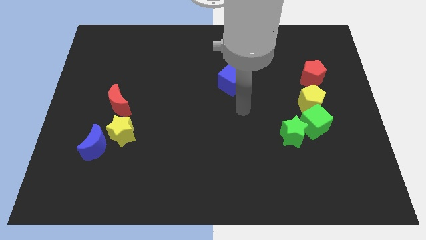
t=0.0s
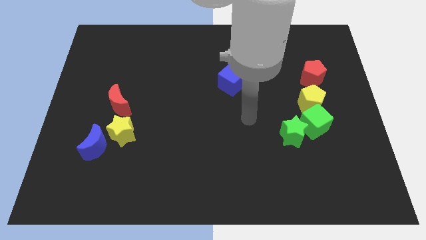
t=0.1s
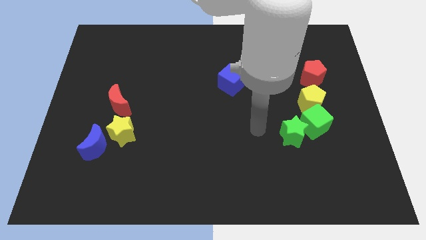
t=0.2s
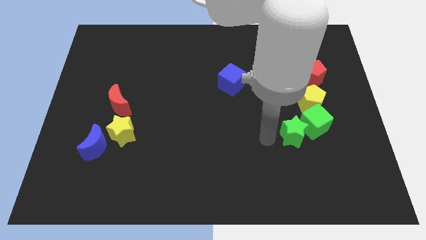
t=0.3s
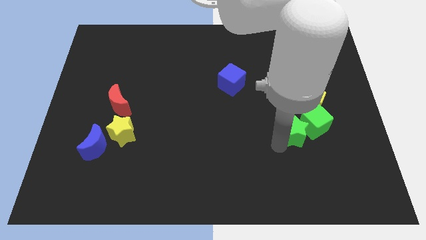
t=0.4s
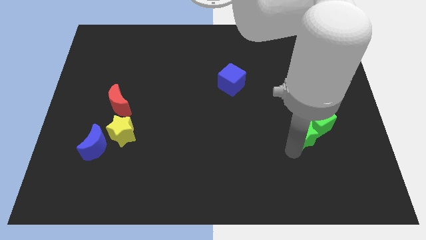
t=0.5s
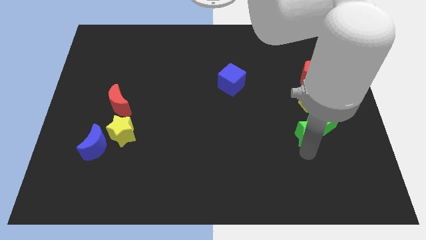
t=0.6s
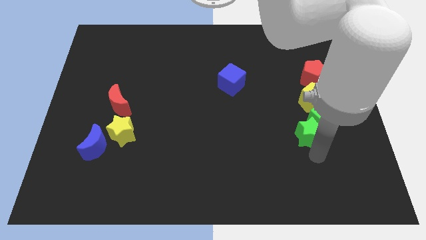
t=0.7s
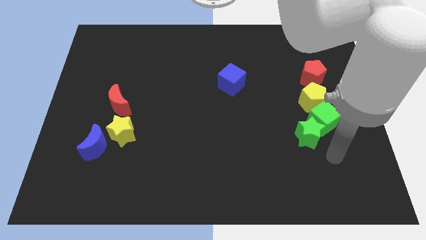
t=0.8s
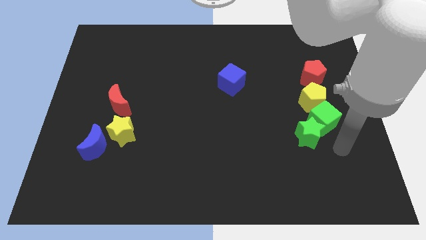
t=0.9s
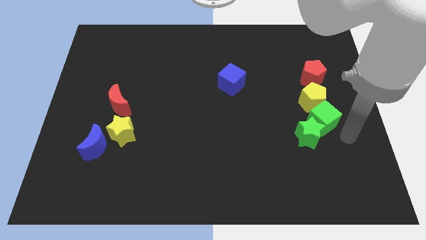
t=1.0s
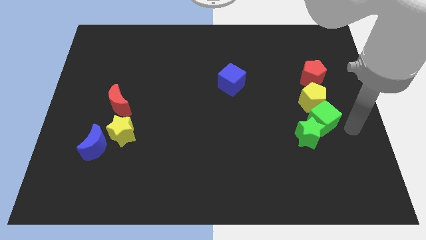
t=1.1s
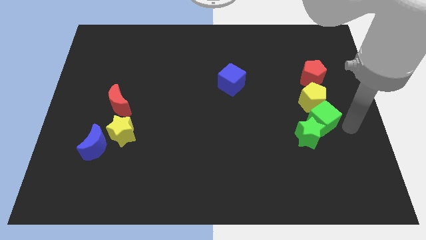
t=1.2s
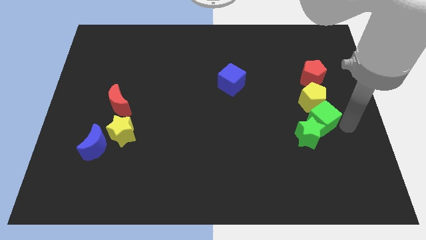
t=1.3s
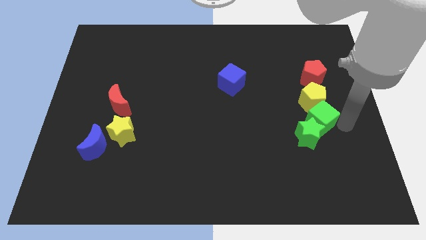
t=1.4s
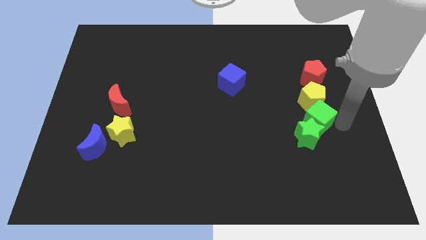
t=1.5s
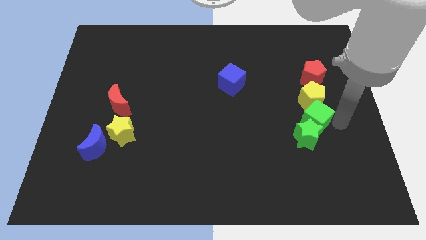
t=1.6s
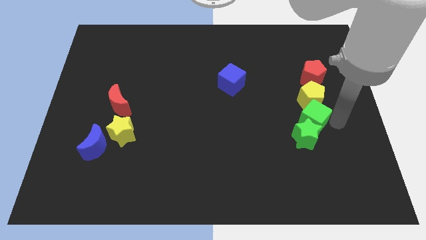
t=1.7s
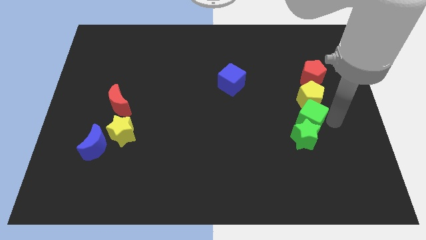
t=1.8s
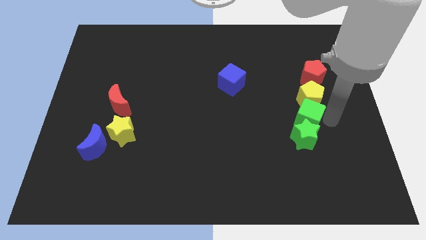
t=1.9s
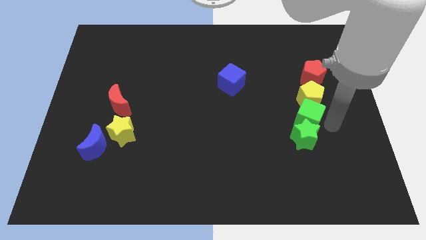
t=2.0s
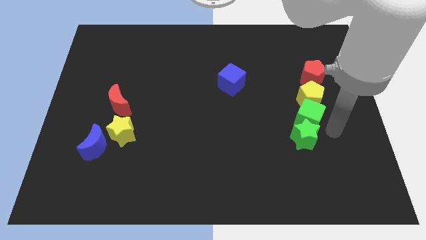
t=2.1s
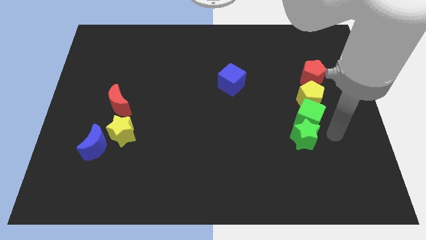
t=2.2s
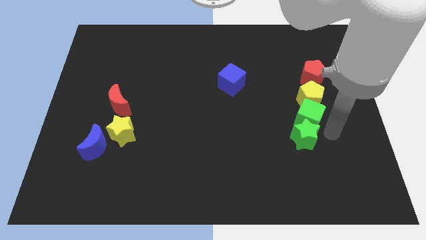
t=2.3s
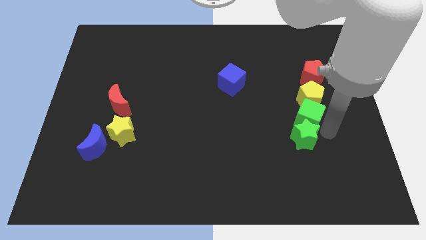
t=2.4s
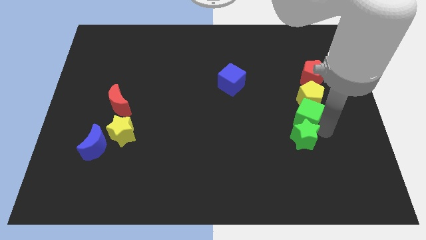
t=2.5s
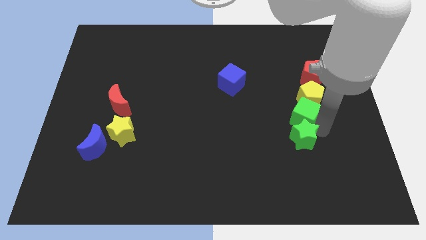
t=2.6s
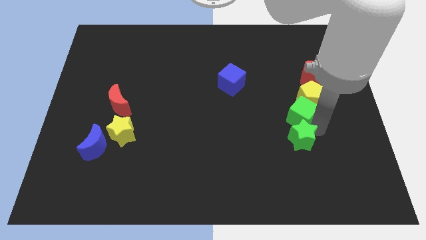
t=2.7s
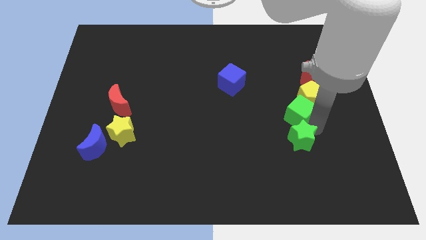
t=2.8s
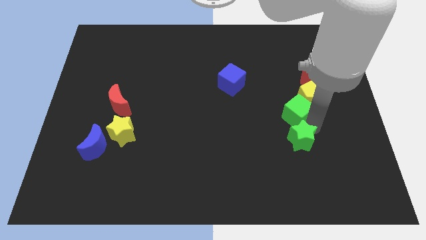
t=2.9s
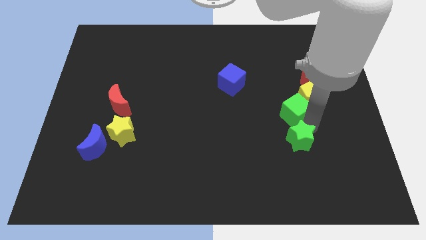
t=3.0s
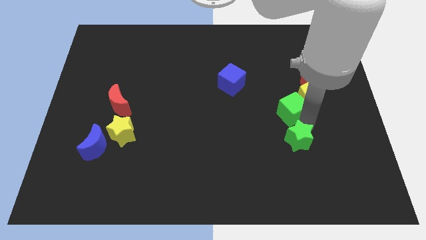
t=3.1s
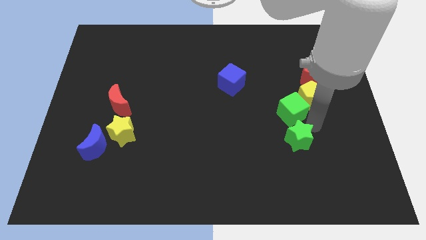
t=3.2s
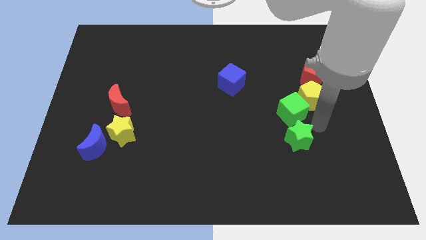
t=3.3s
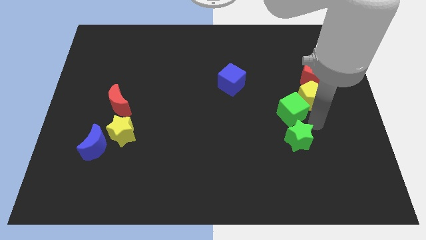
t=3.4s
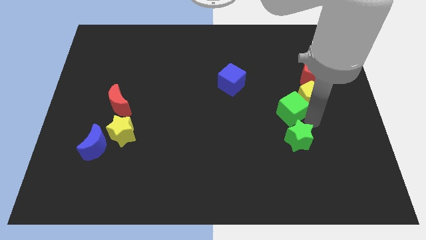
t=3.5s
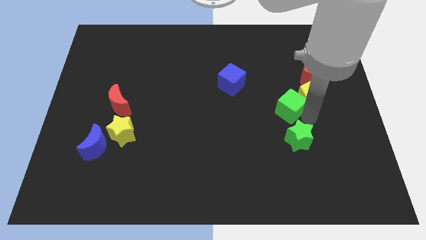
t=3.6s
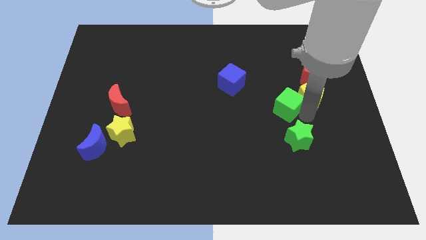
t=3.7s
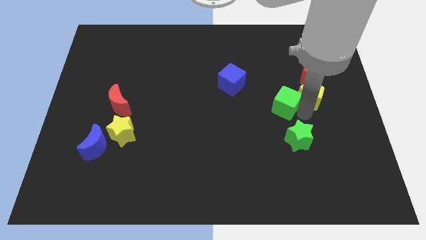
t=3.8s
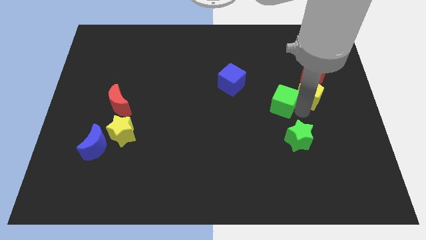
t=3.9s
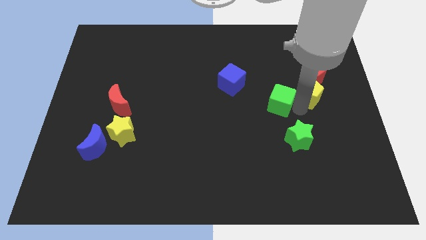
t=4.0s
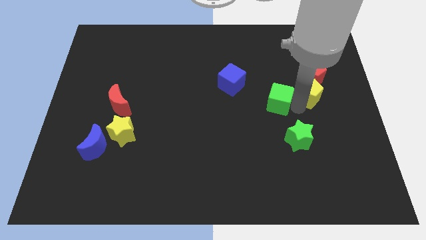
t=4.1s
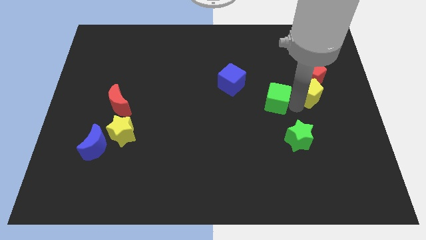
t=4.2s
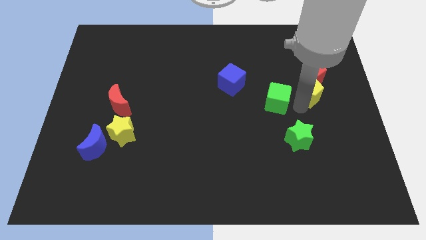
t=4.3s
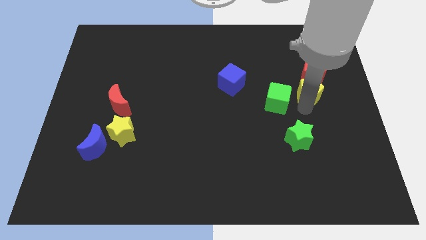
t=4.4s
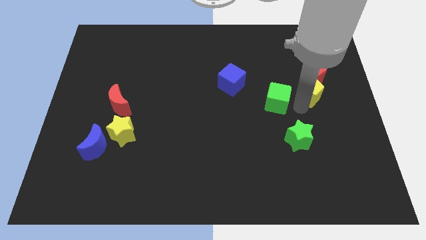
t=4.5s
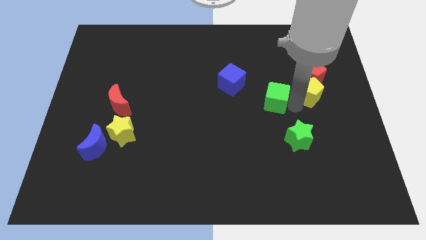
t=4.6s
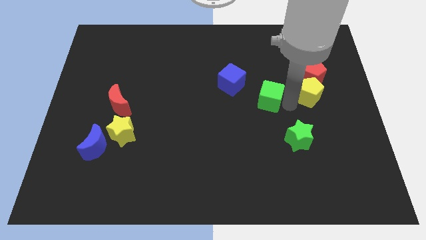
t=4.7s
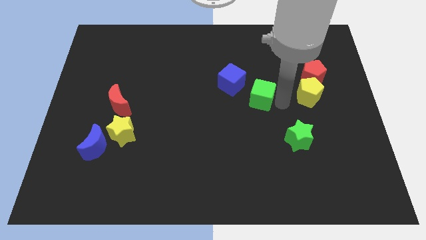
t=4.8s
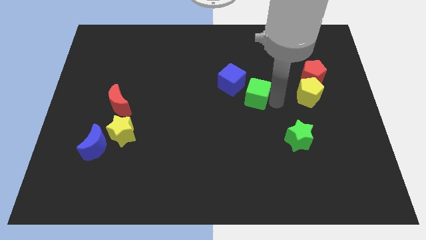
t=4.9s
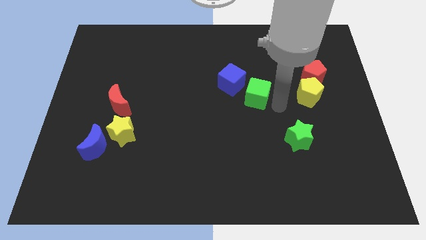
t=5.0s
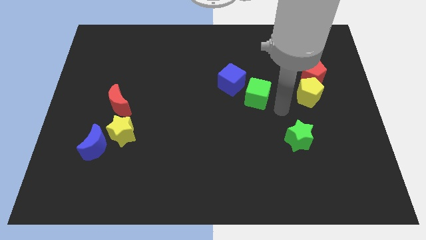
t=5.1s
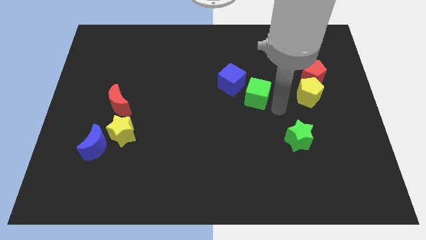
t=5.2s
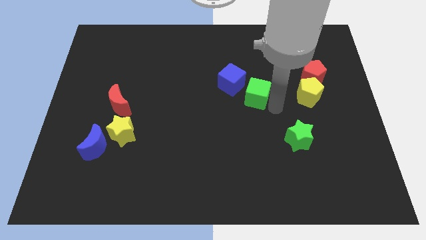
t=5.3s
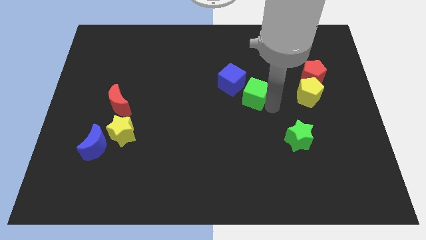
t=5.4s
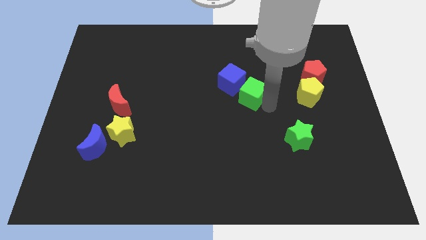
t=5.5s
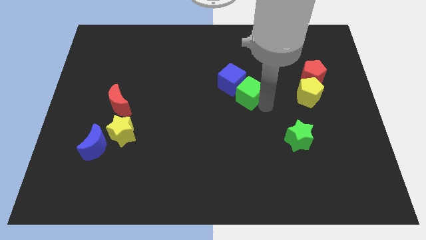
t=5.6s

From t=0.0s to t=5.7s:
move the green cube close to the blue cube

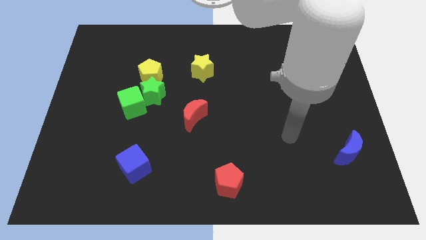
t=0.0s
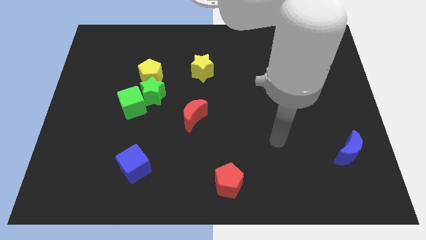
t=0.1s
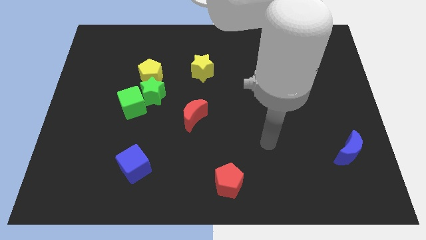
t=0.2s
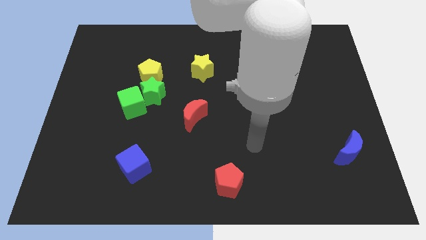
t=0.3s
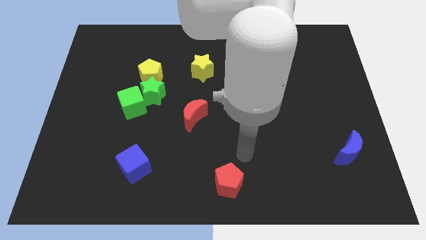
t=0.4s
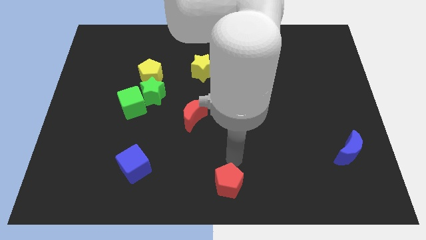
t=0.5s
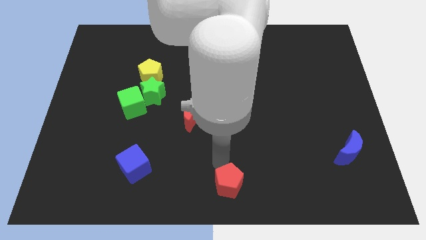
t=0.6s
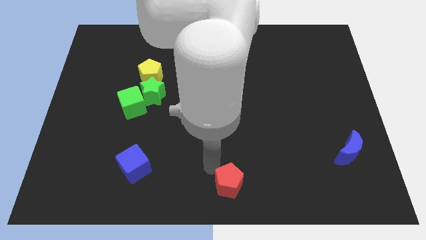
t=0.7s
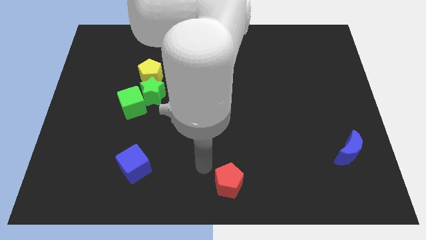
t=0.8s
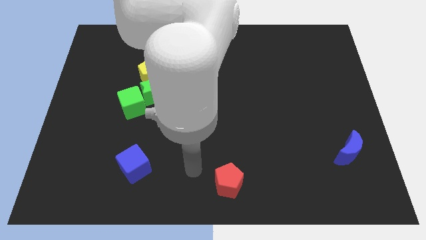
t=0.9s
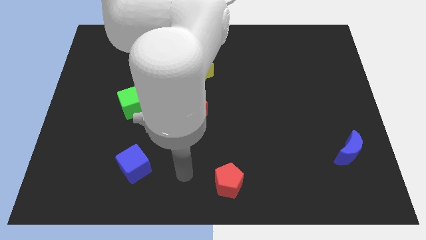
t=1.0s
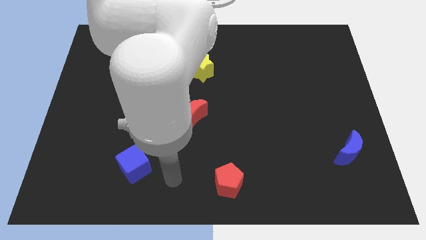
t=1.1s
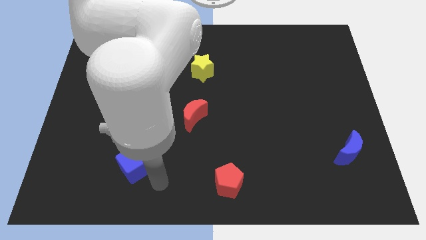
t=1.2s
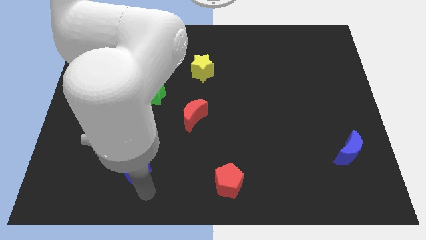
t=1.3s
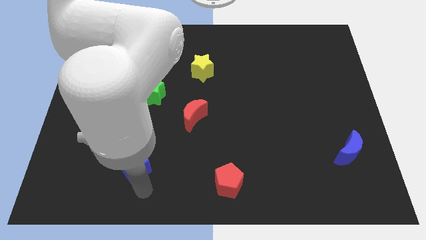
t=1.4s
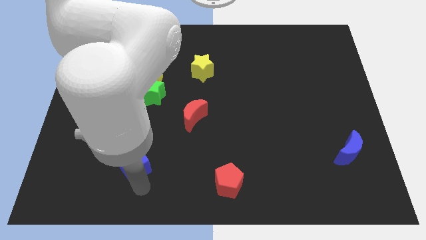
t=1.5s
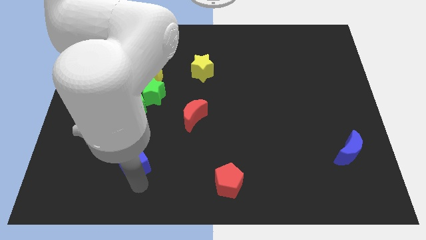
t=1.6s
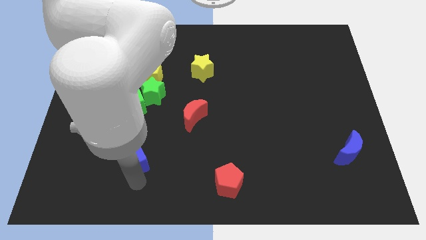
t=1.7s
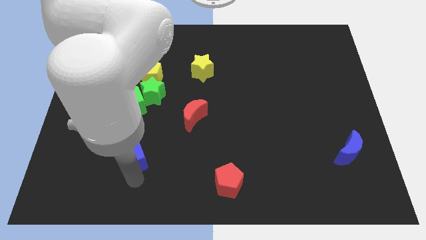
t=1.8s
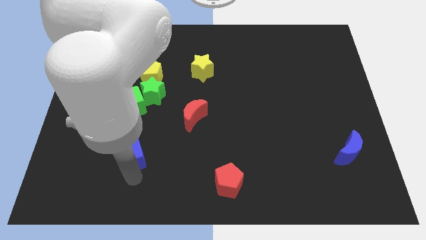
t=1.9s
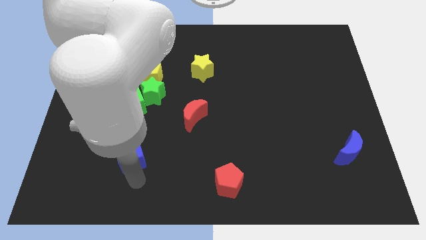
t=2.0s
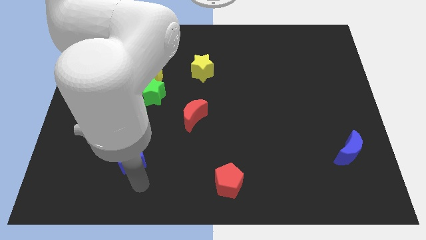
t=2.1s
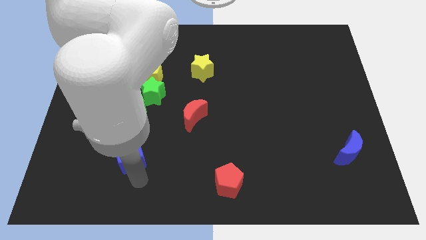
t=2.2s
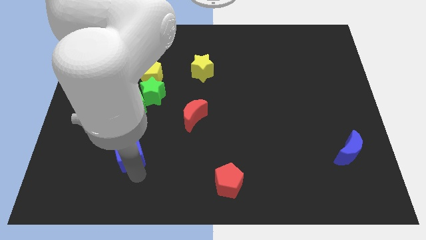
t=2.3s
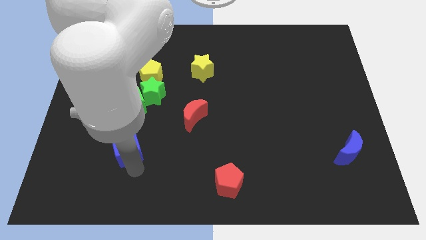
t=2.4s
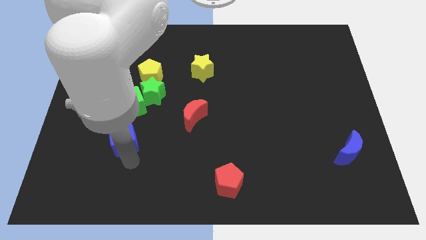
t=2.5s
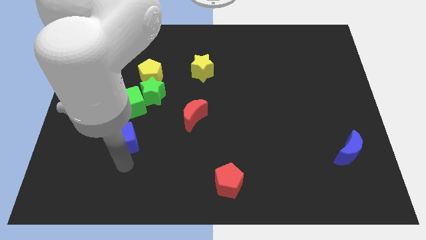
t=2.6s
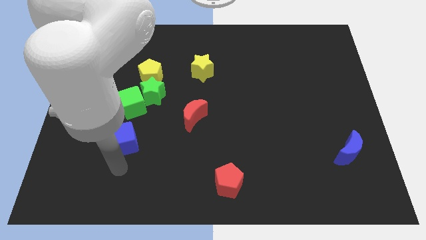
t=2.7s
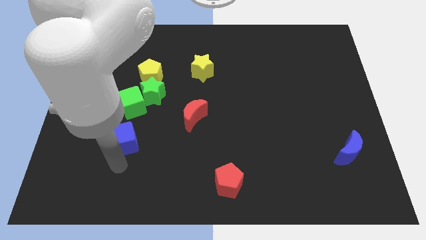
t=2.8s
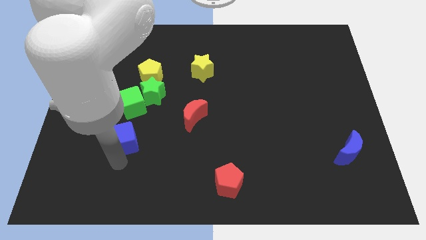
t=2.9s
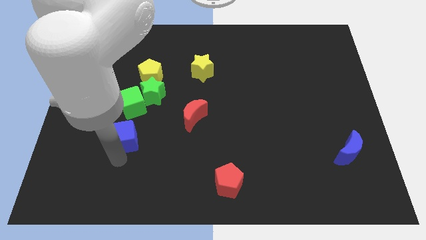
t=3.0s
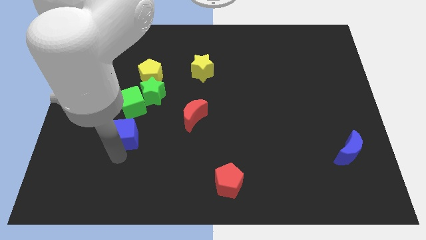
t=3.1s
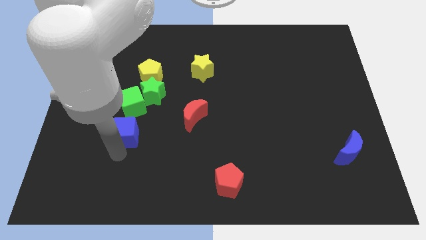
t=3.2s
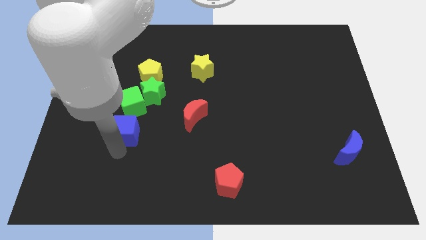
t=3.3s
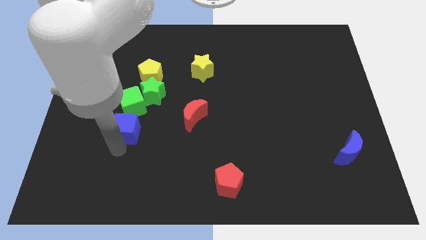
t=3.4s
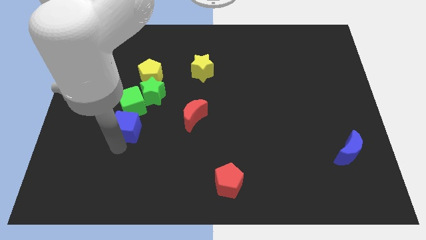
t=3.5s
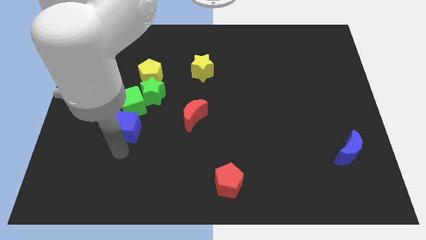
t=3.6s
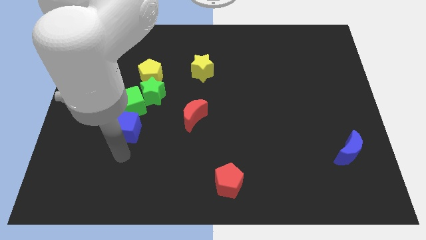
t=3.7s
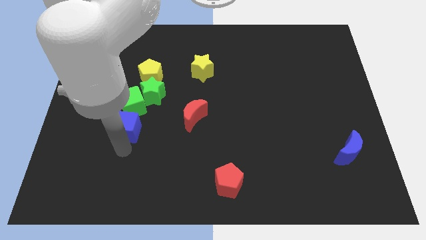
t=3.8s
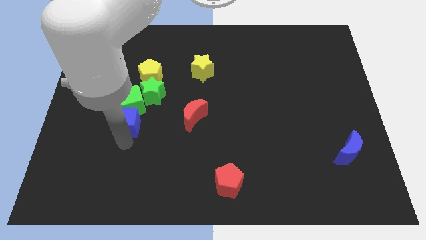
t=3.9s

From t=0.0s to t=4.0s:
slide the blue cube close to the green cube
